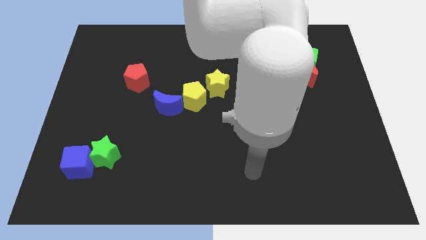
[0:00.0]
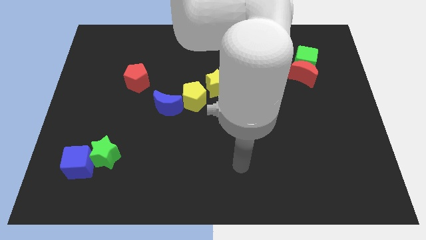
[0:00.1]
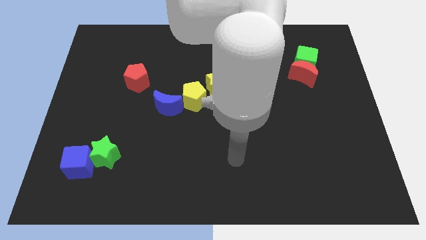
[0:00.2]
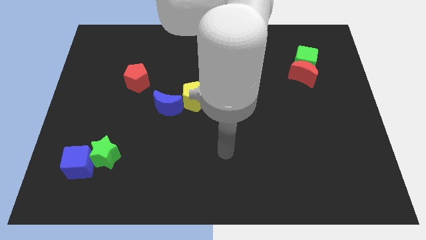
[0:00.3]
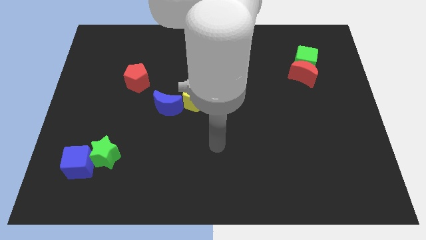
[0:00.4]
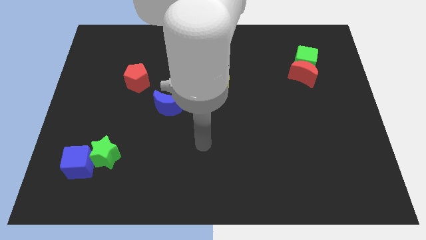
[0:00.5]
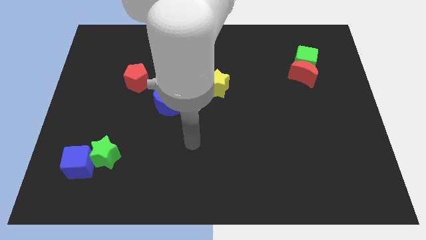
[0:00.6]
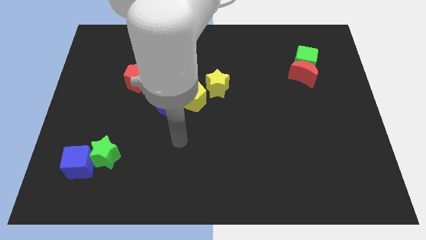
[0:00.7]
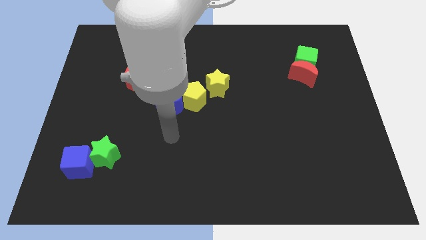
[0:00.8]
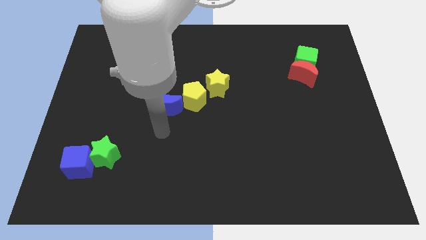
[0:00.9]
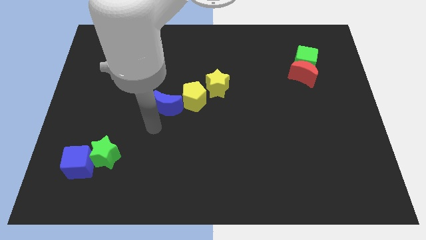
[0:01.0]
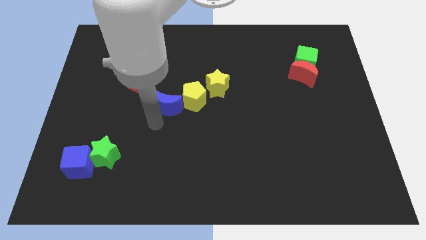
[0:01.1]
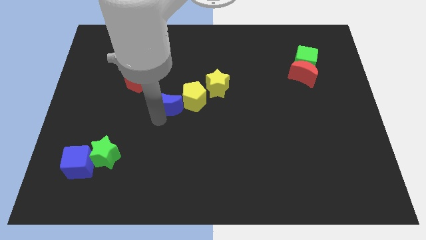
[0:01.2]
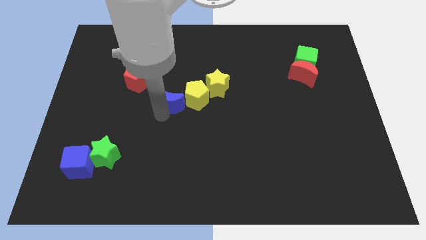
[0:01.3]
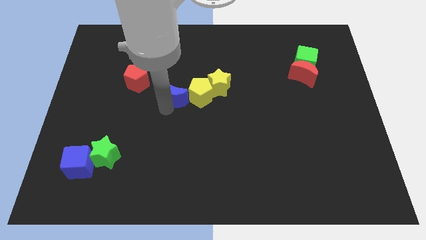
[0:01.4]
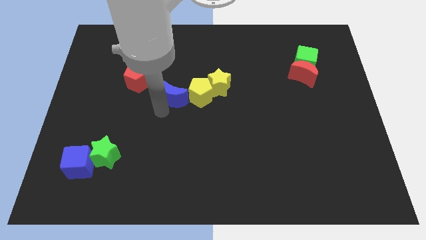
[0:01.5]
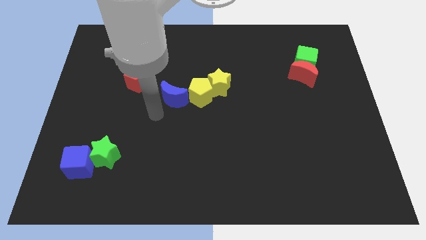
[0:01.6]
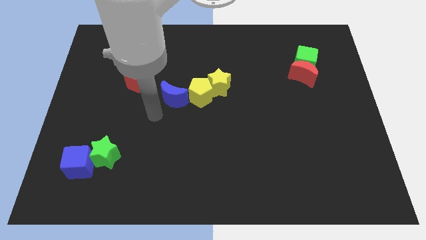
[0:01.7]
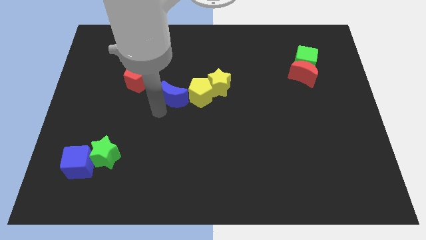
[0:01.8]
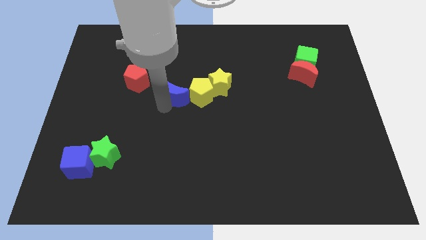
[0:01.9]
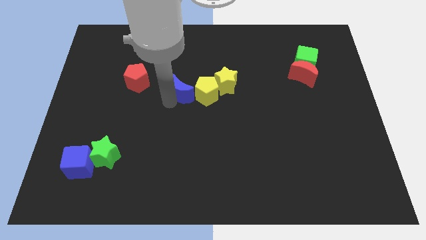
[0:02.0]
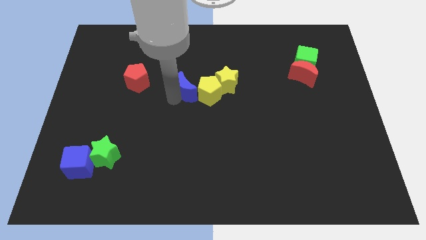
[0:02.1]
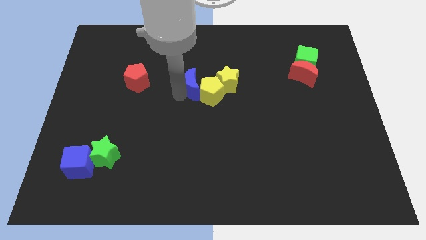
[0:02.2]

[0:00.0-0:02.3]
slide the blue moon slightly diagonally up and right

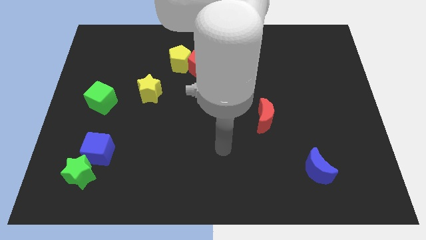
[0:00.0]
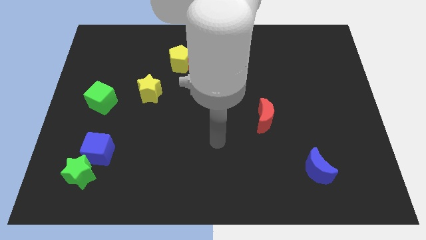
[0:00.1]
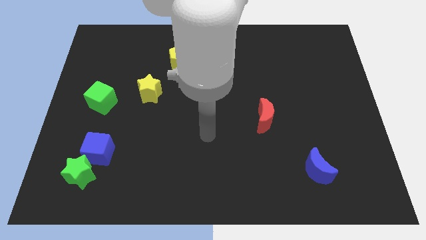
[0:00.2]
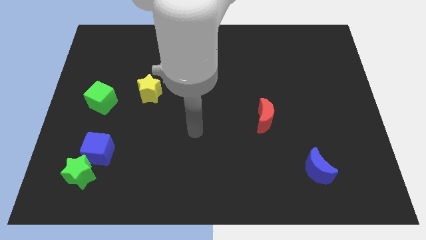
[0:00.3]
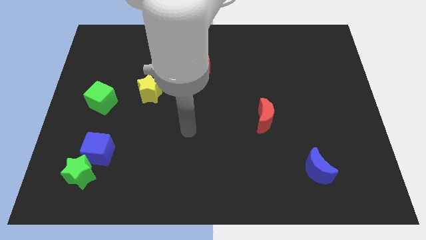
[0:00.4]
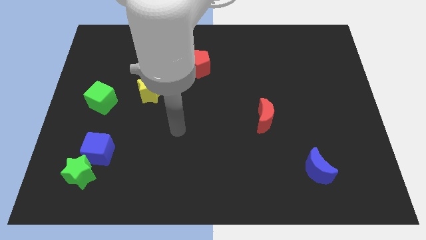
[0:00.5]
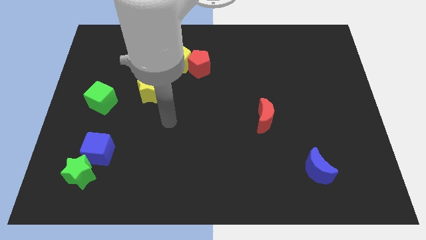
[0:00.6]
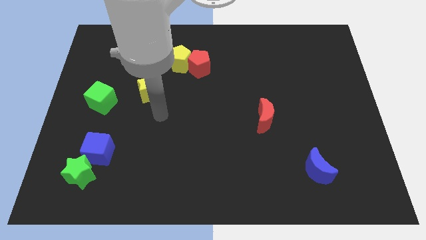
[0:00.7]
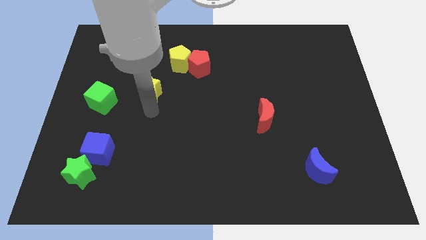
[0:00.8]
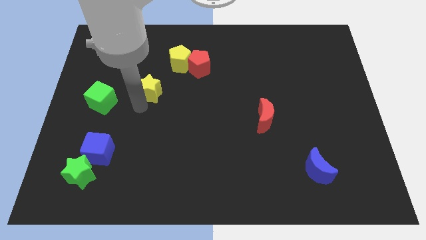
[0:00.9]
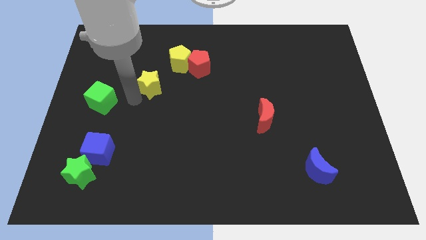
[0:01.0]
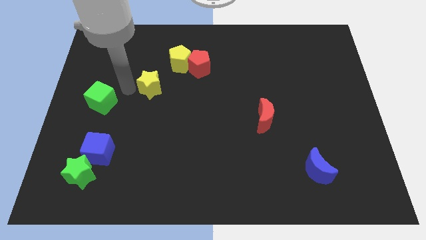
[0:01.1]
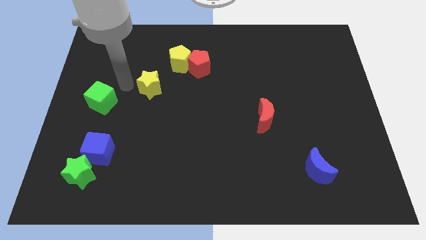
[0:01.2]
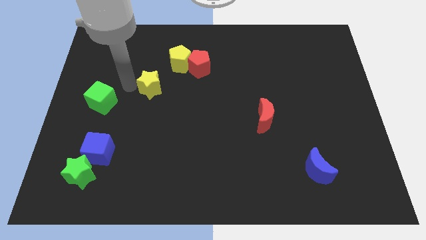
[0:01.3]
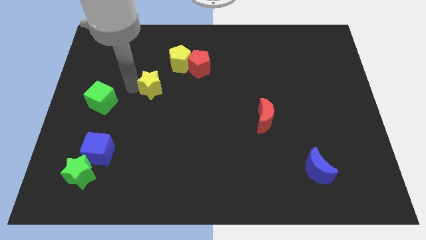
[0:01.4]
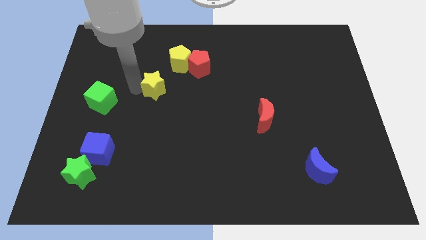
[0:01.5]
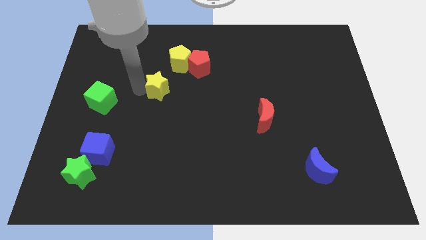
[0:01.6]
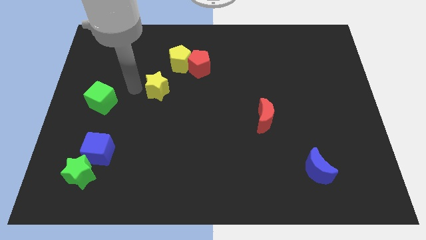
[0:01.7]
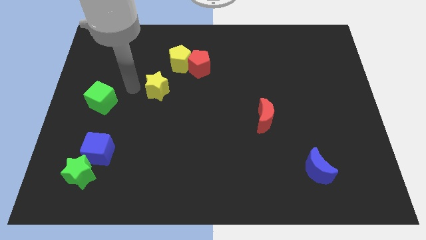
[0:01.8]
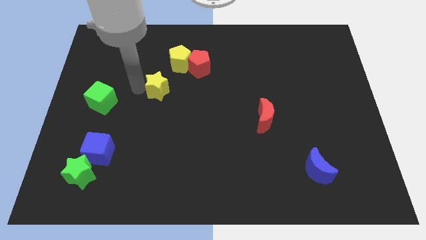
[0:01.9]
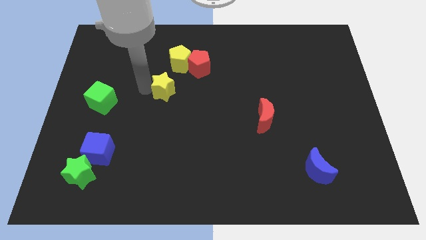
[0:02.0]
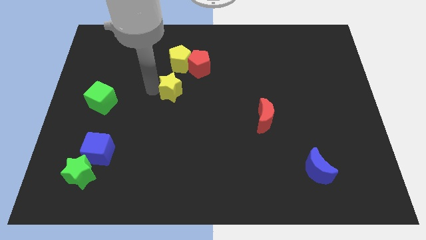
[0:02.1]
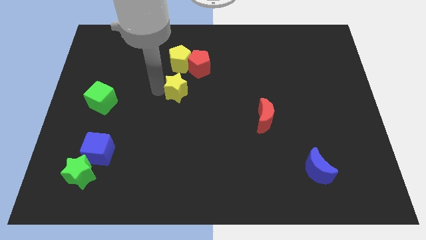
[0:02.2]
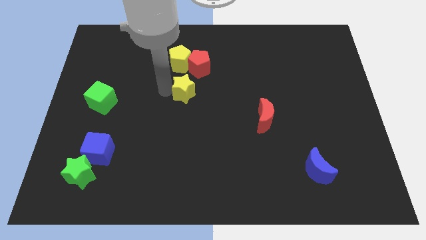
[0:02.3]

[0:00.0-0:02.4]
push the yellow star somewhat right

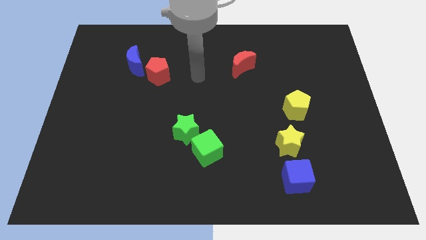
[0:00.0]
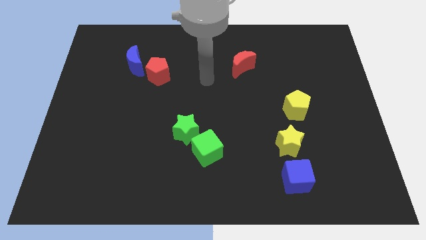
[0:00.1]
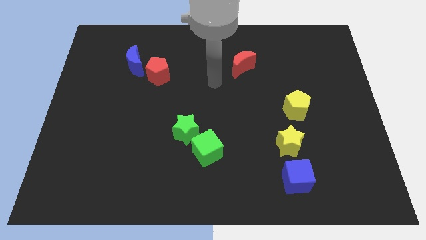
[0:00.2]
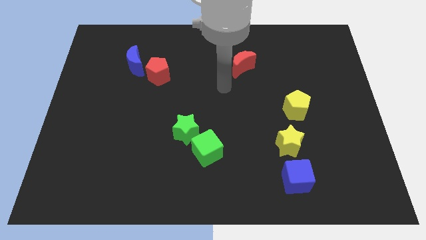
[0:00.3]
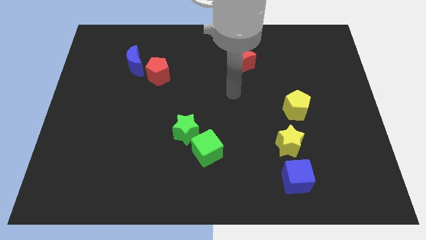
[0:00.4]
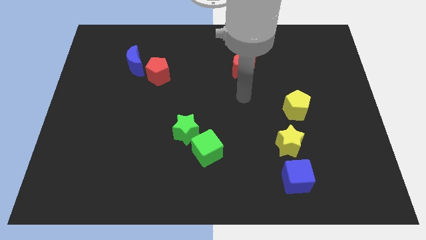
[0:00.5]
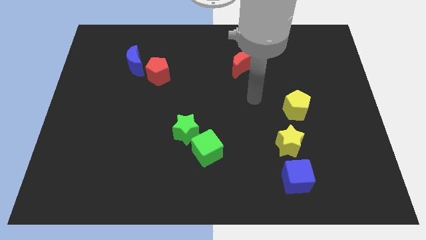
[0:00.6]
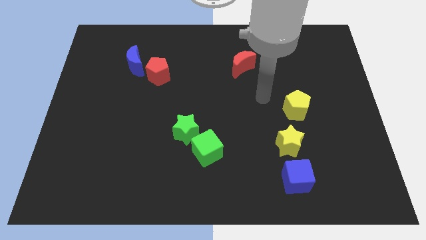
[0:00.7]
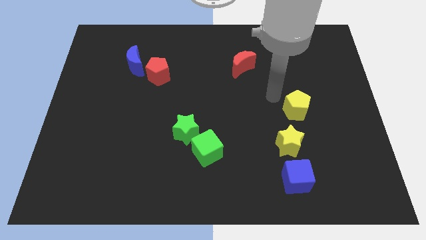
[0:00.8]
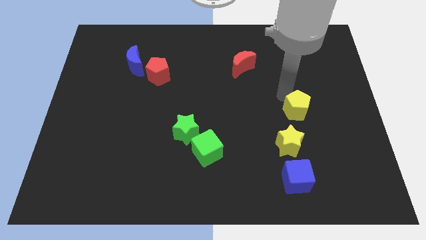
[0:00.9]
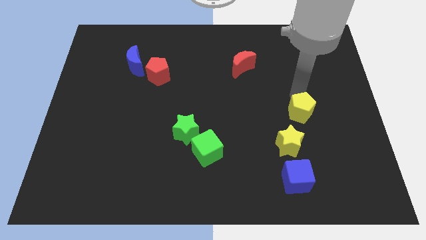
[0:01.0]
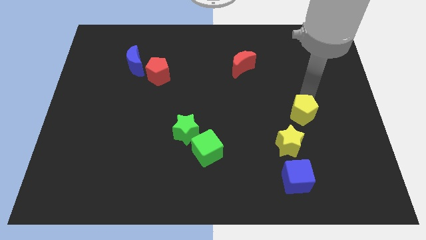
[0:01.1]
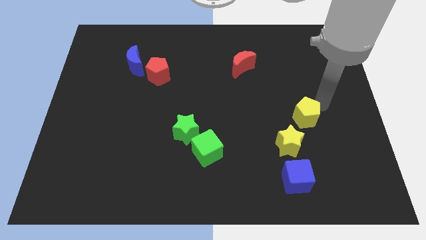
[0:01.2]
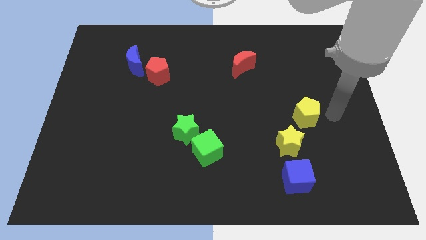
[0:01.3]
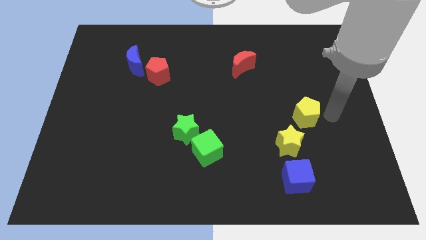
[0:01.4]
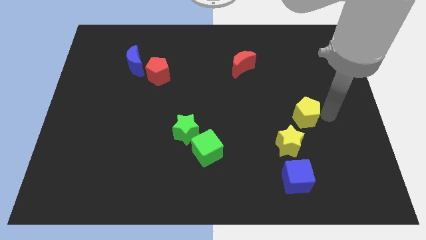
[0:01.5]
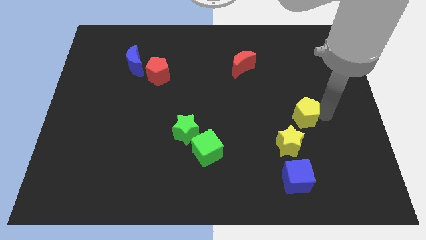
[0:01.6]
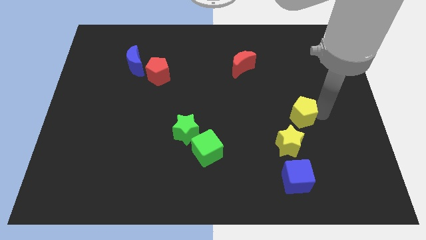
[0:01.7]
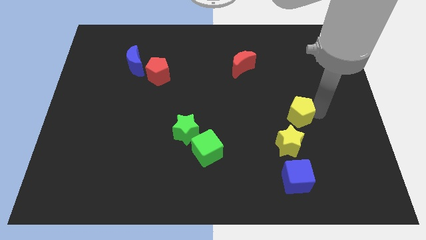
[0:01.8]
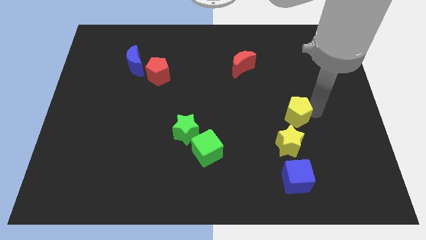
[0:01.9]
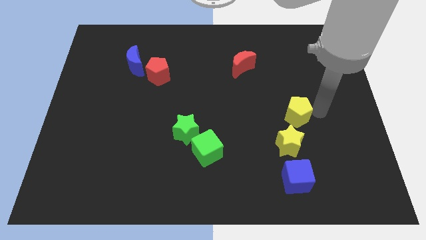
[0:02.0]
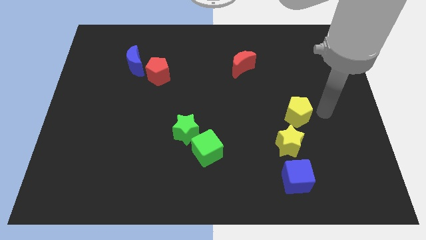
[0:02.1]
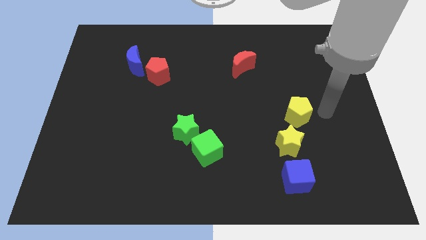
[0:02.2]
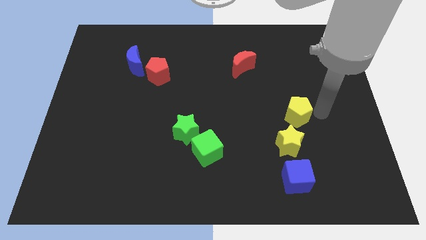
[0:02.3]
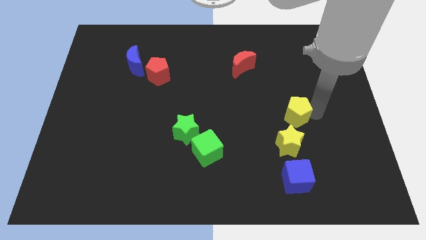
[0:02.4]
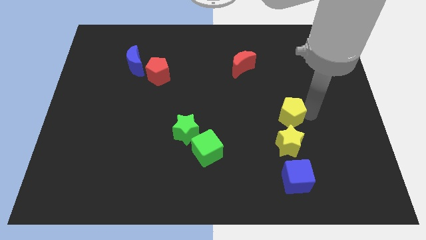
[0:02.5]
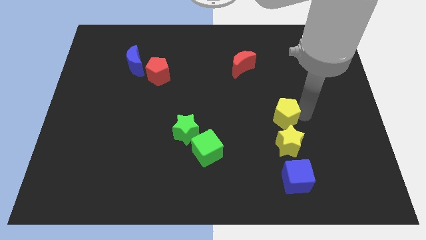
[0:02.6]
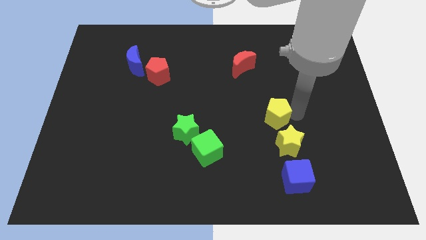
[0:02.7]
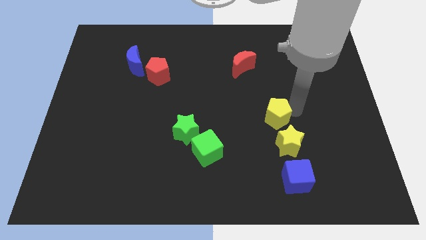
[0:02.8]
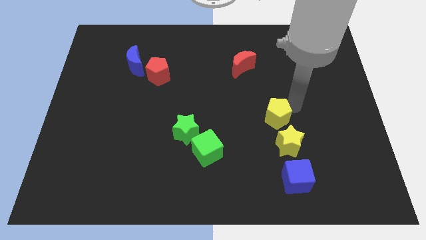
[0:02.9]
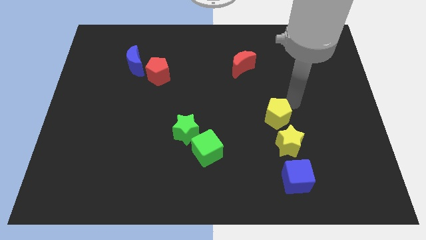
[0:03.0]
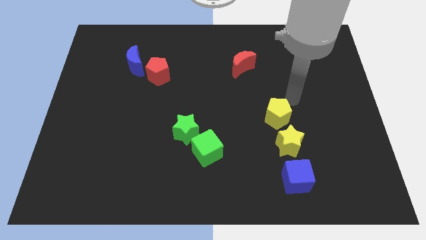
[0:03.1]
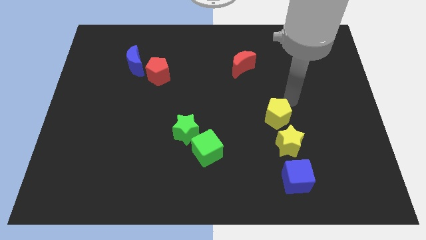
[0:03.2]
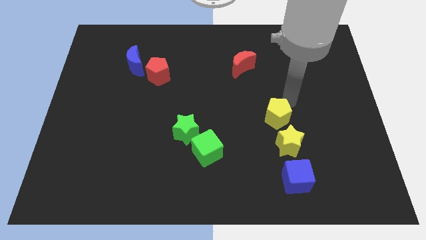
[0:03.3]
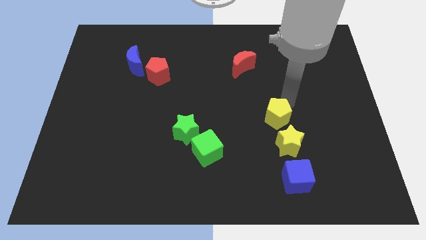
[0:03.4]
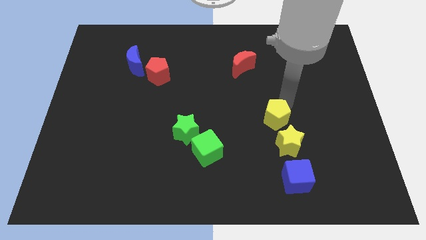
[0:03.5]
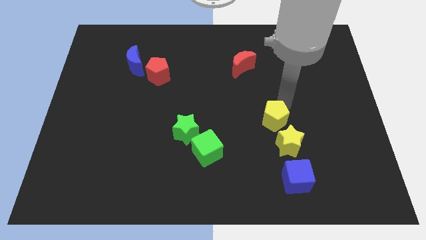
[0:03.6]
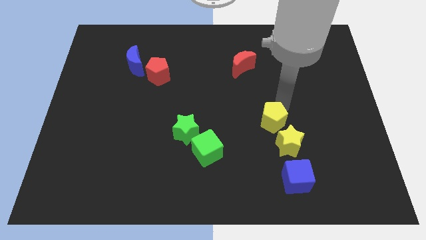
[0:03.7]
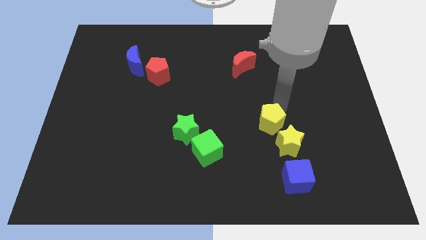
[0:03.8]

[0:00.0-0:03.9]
push the yellow pentagon a little bit down and left
